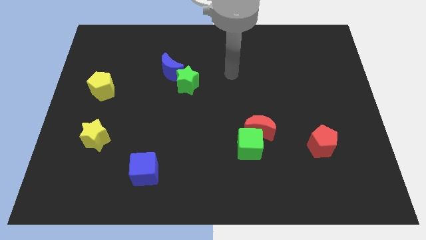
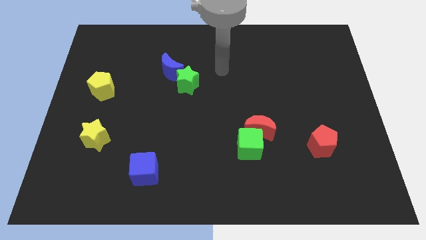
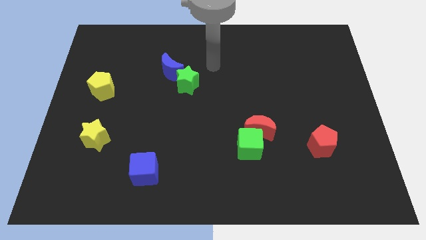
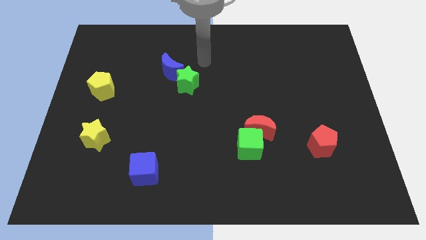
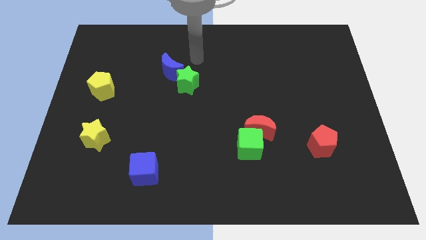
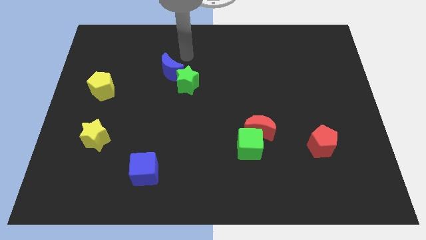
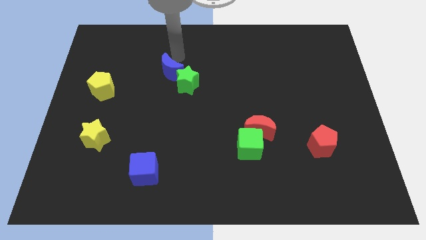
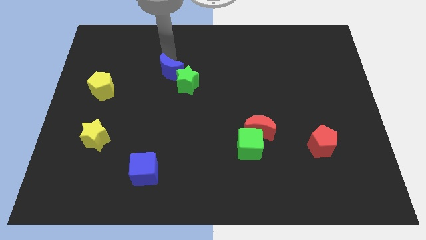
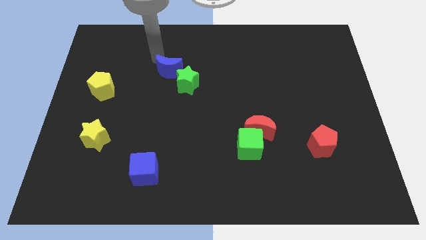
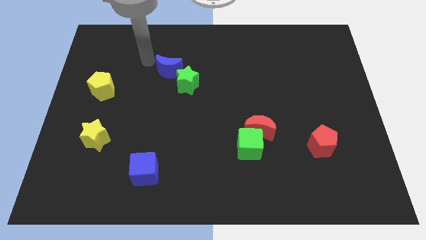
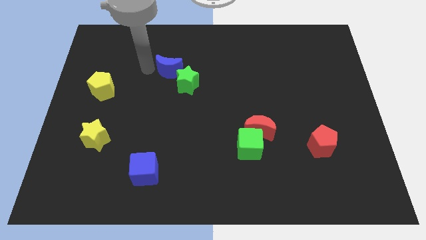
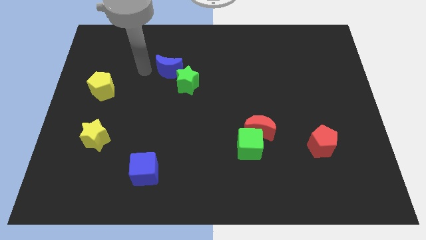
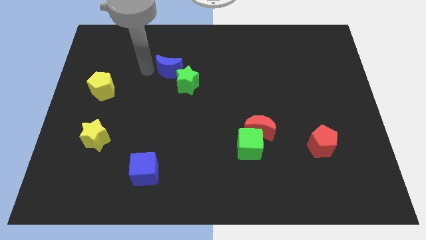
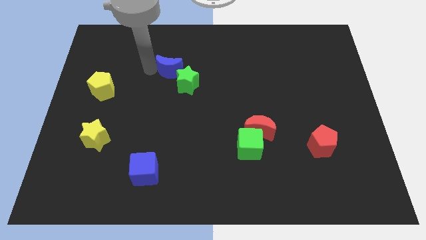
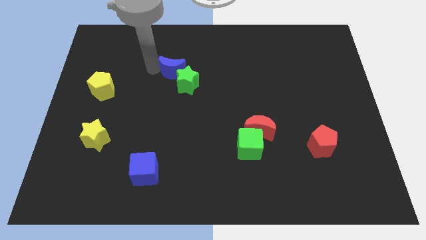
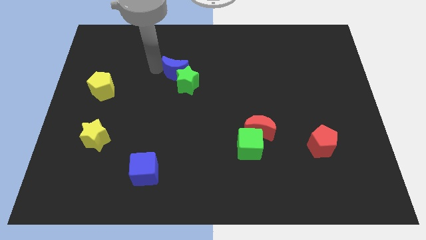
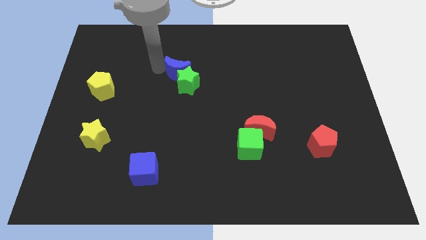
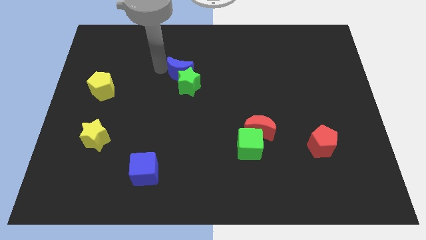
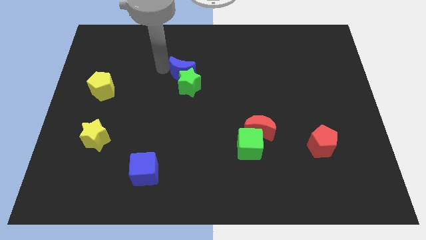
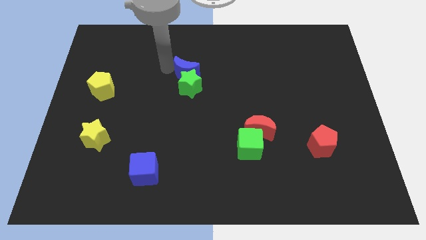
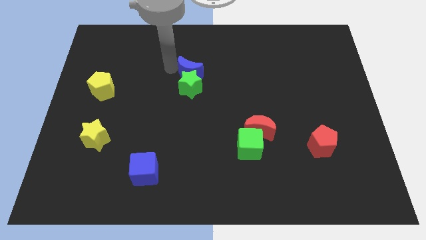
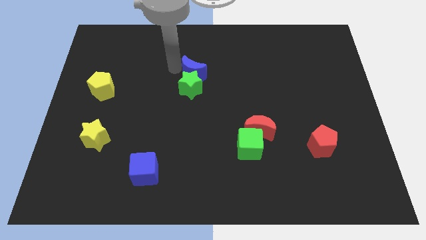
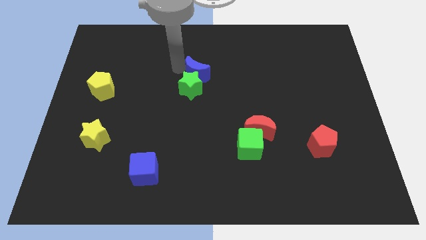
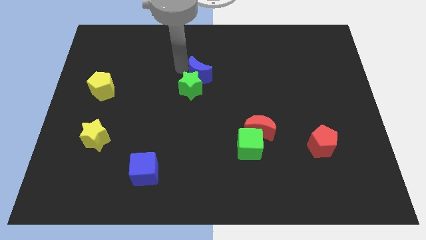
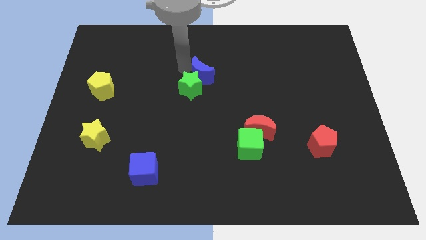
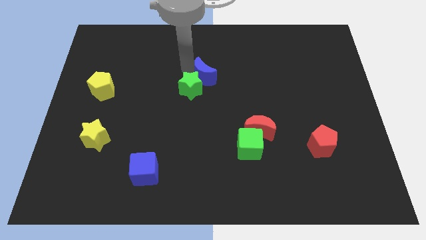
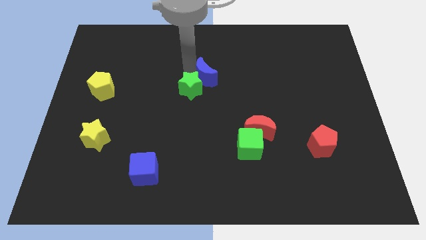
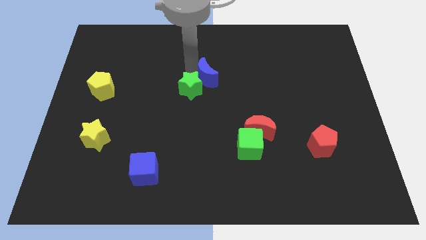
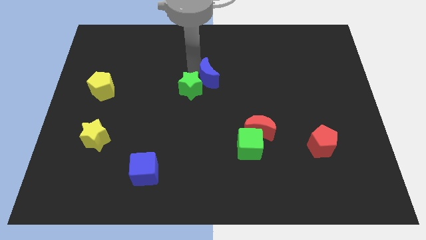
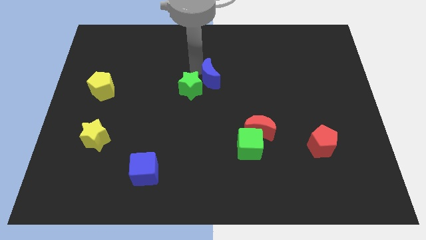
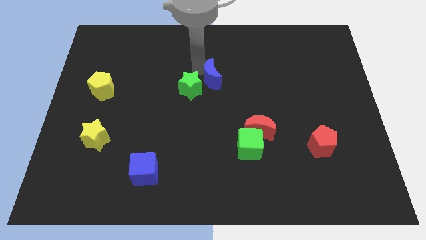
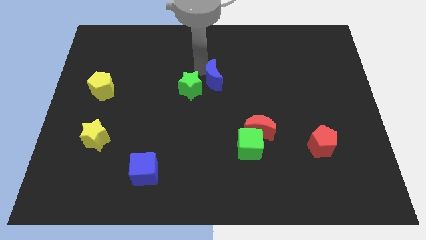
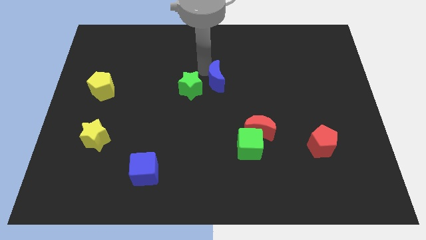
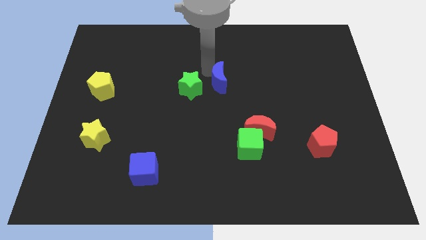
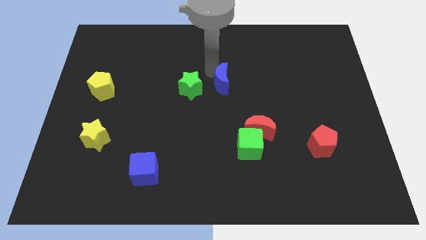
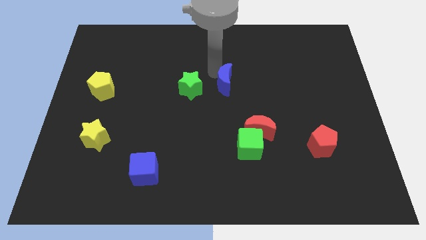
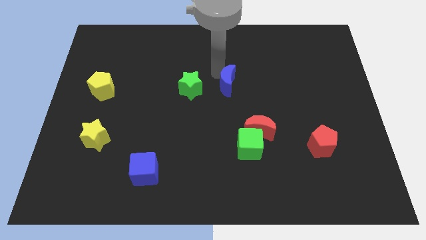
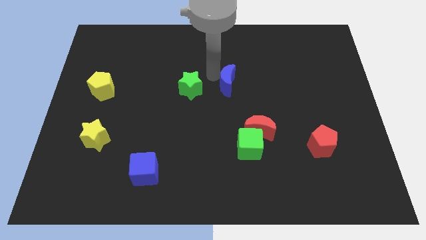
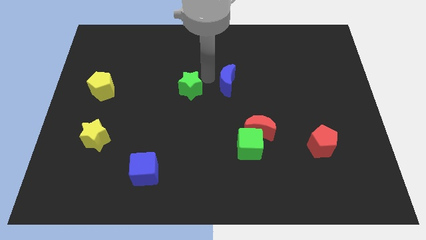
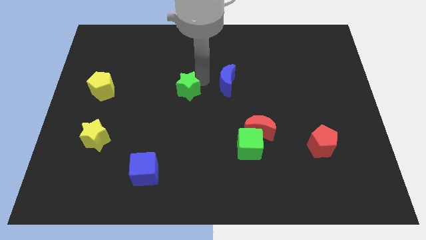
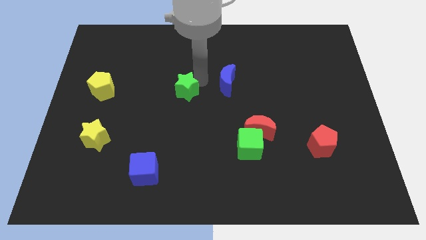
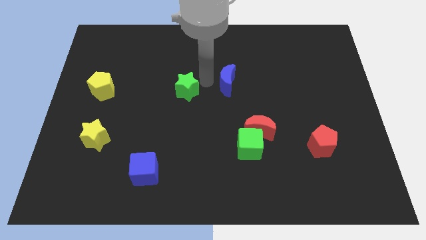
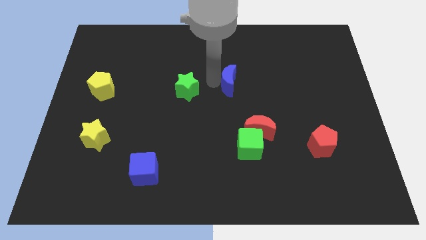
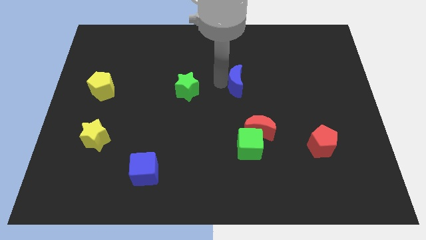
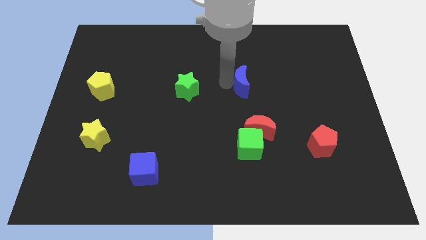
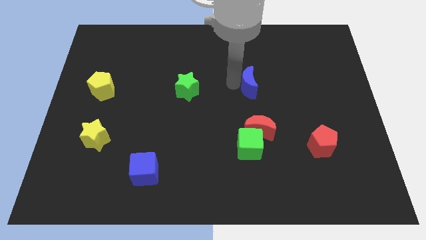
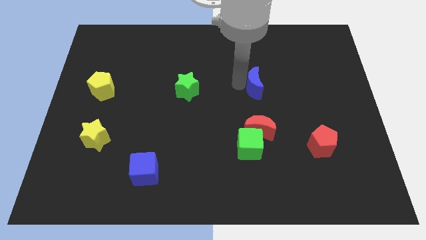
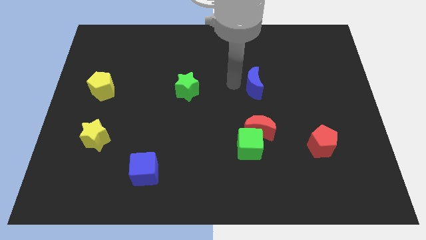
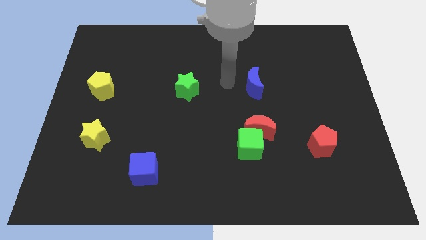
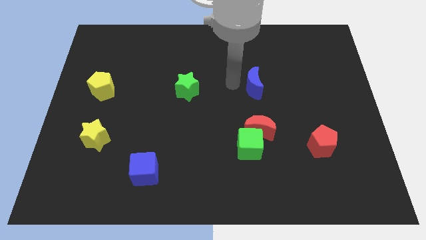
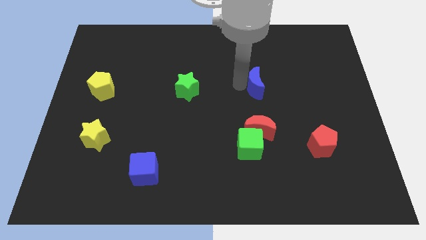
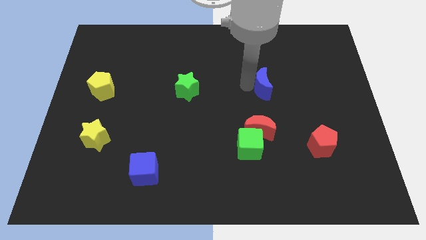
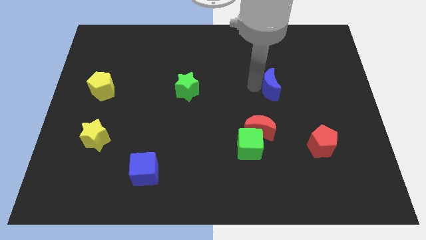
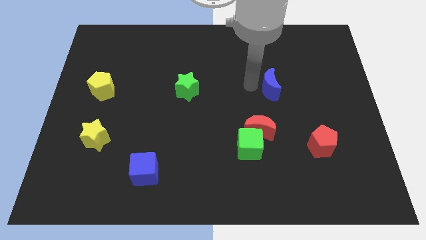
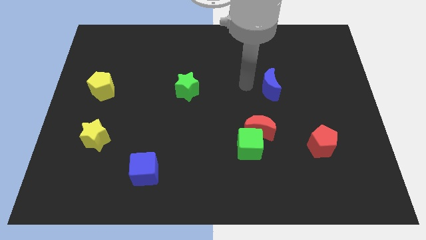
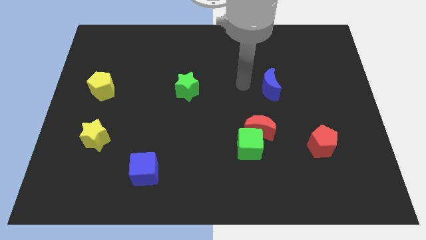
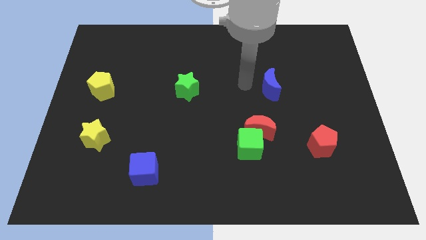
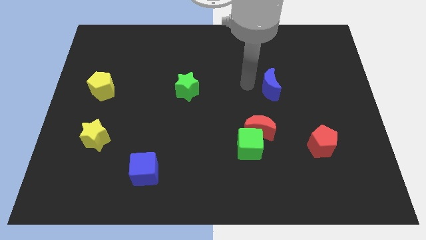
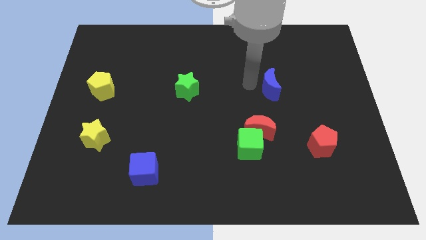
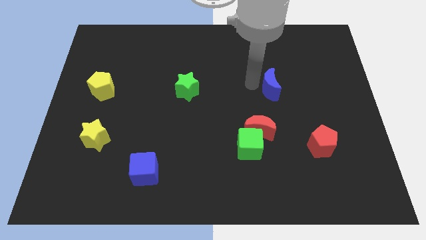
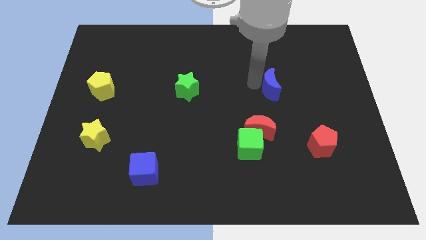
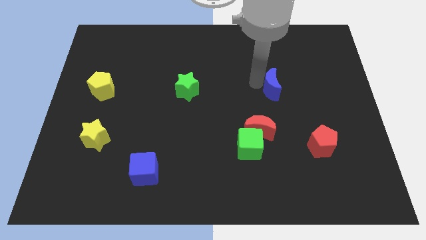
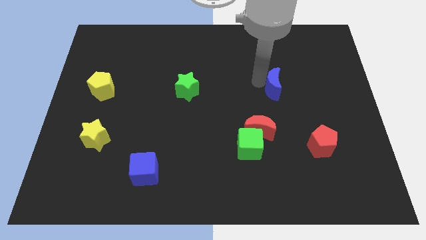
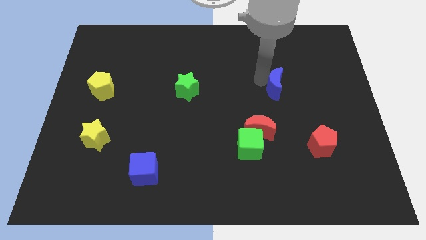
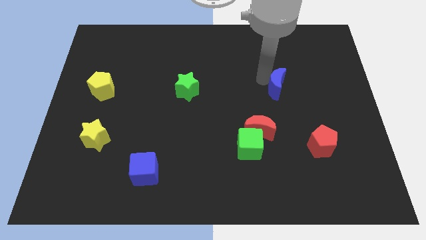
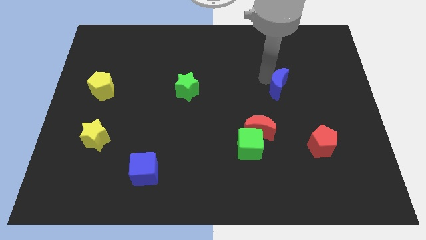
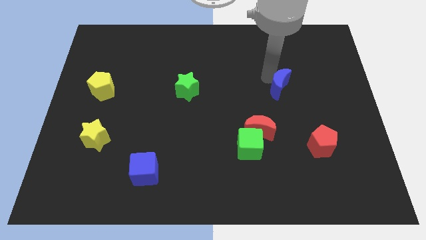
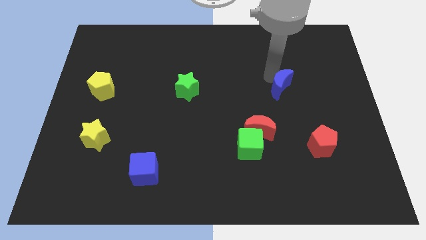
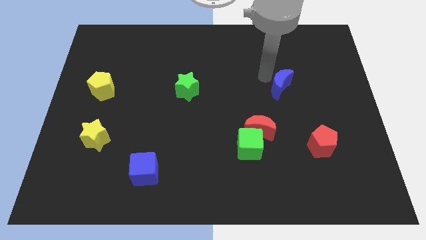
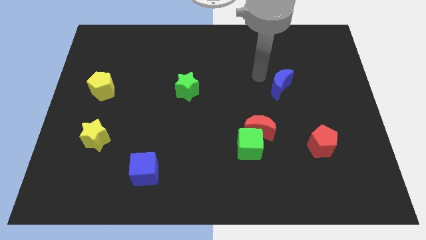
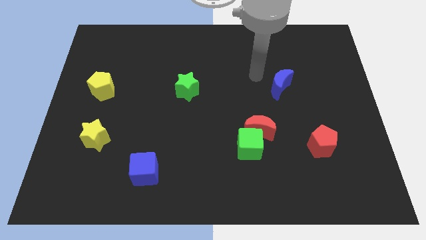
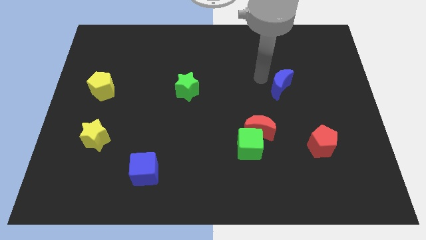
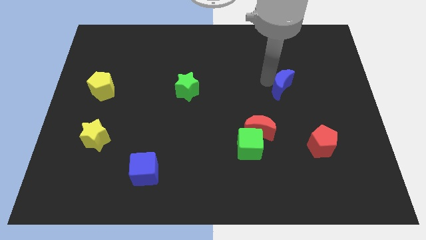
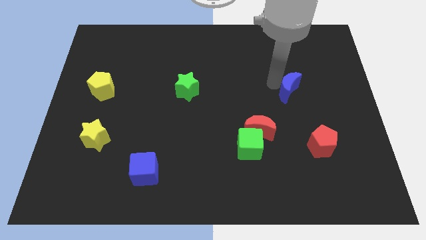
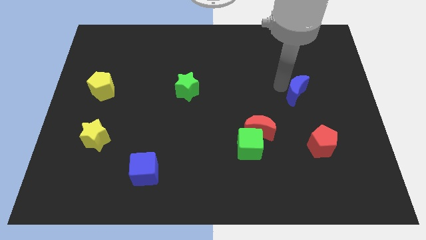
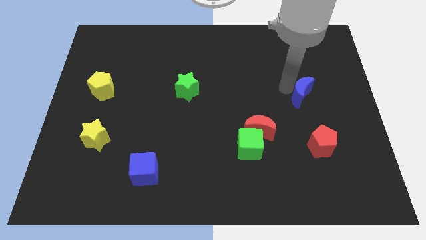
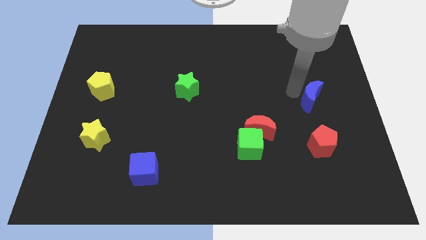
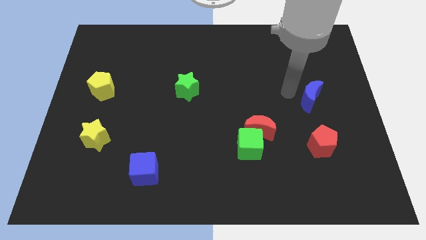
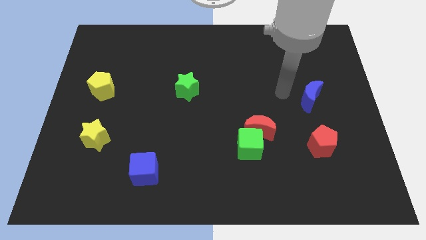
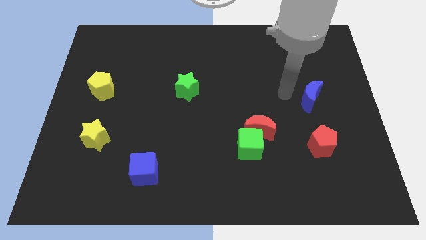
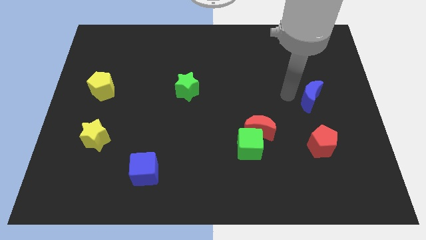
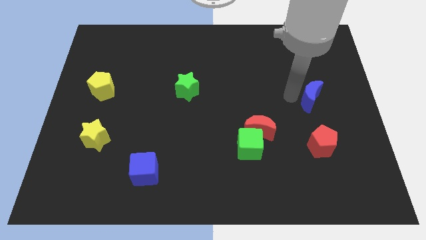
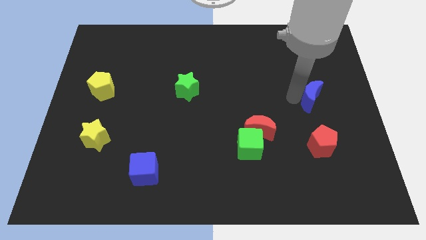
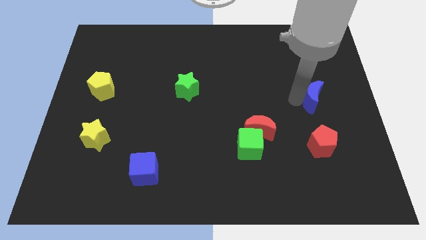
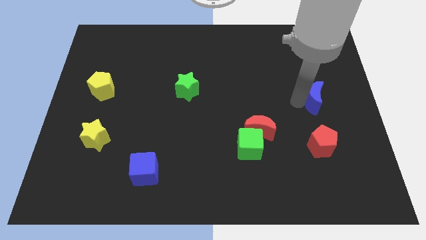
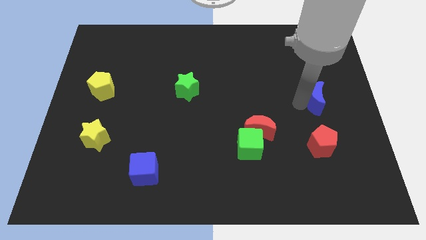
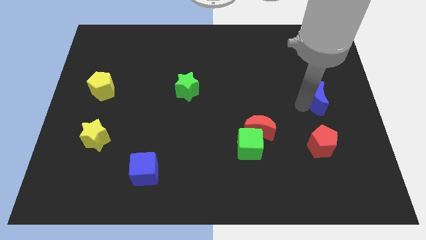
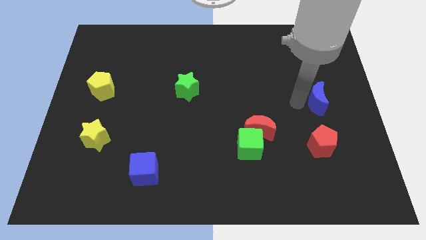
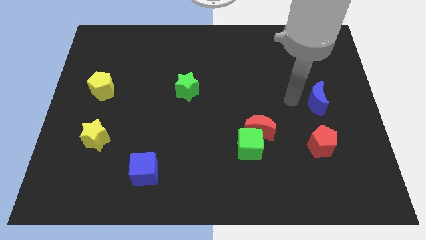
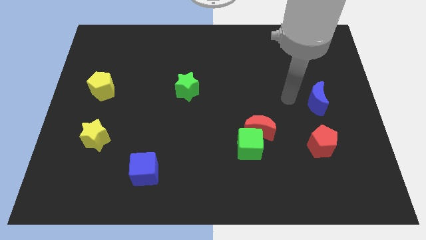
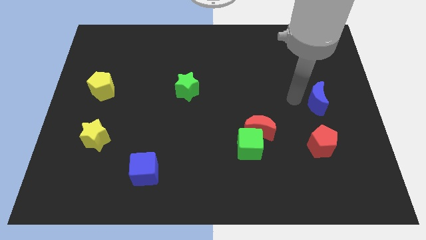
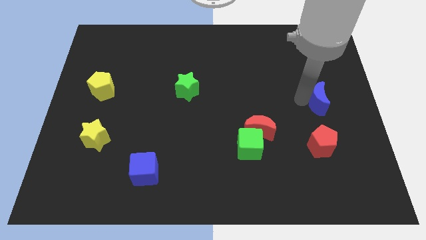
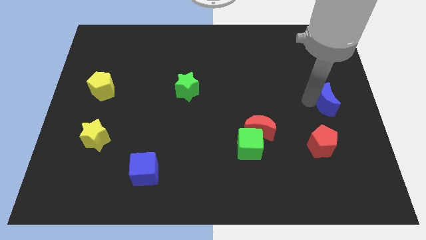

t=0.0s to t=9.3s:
move the blue moon to the right side of the board
